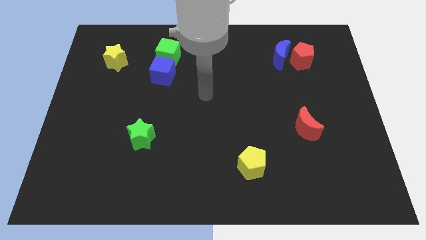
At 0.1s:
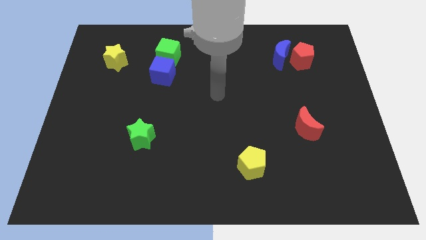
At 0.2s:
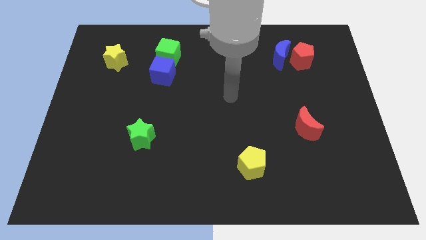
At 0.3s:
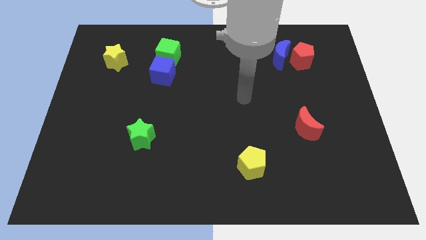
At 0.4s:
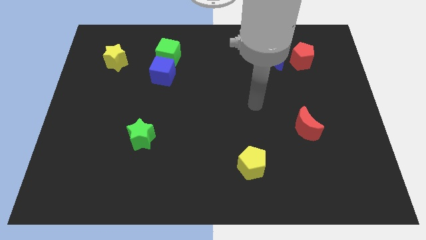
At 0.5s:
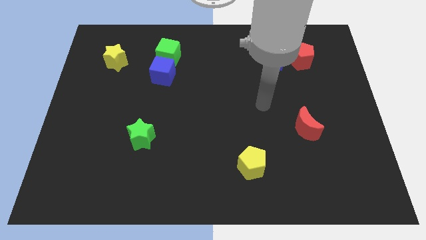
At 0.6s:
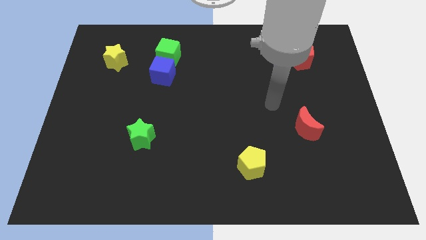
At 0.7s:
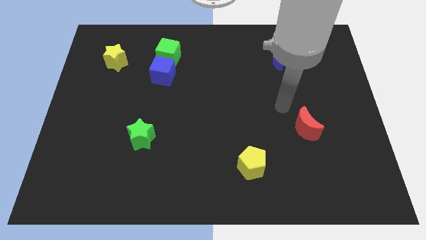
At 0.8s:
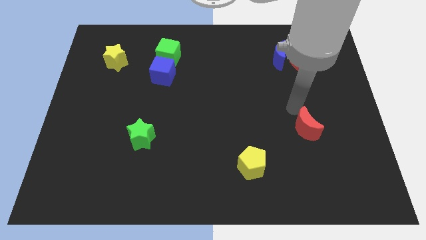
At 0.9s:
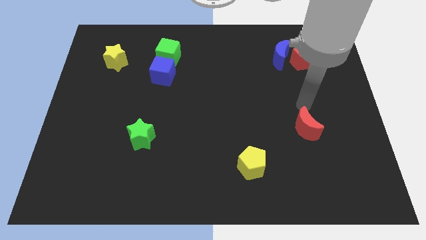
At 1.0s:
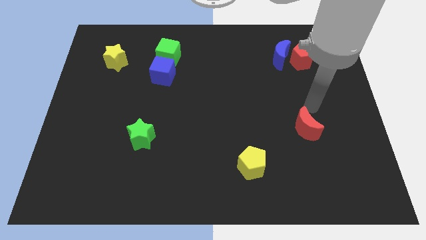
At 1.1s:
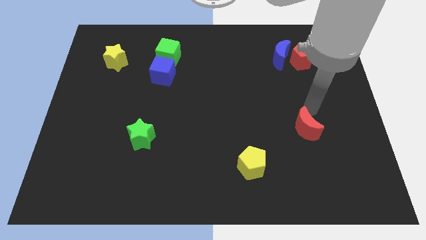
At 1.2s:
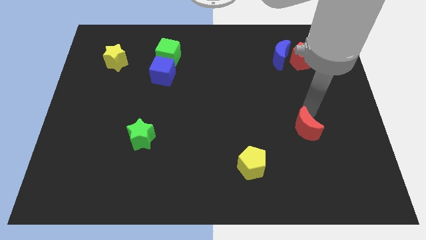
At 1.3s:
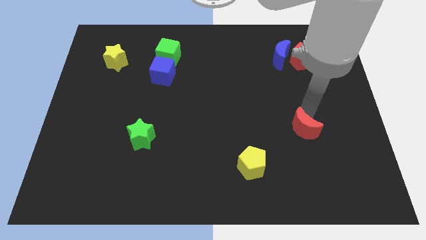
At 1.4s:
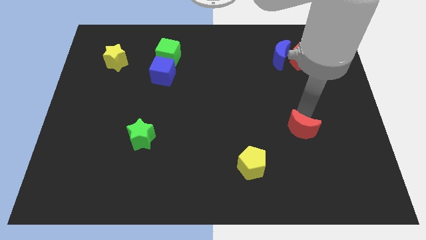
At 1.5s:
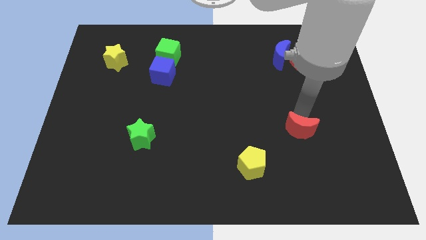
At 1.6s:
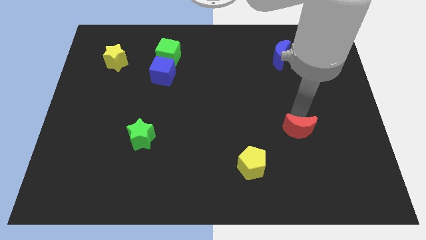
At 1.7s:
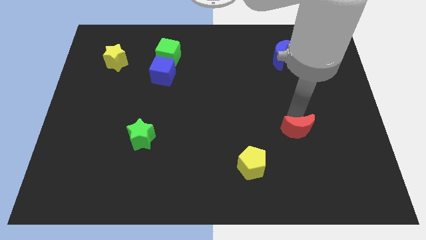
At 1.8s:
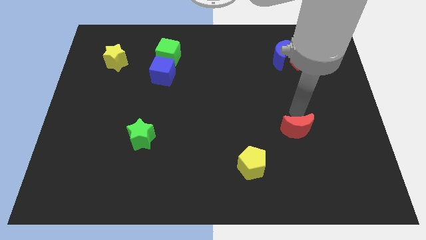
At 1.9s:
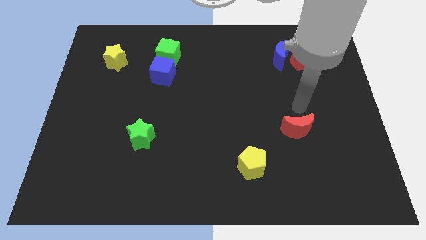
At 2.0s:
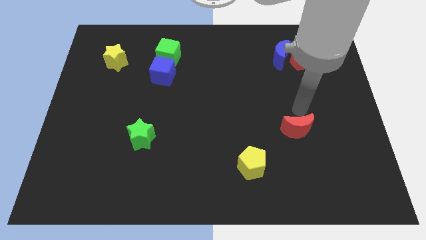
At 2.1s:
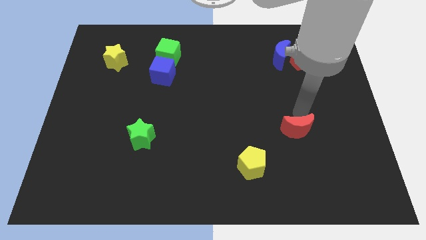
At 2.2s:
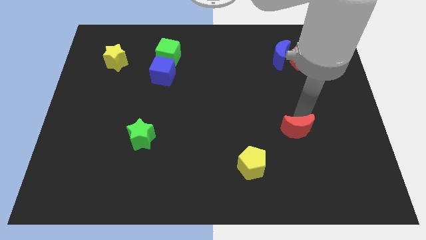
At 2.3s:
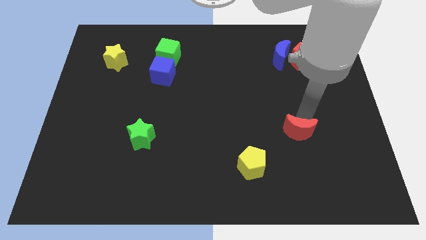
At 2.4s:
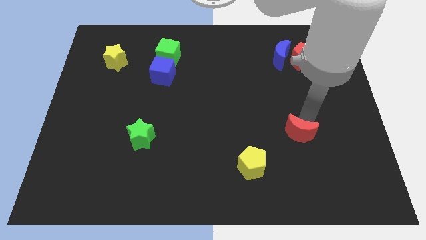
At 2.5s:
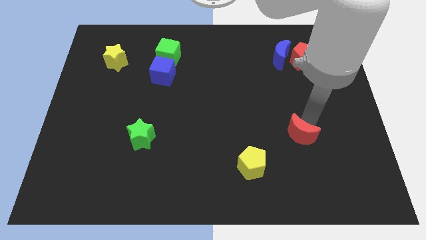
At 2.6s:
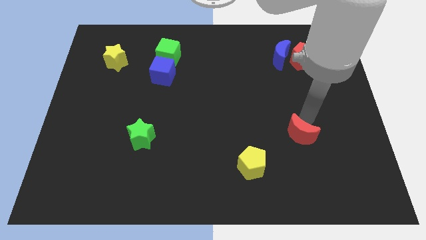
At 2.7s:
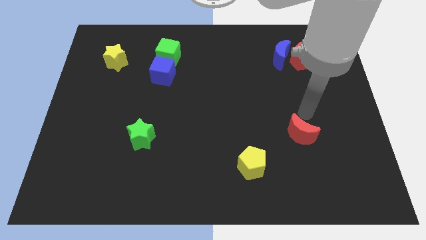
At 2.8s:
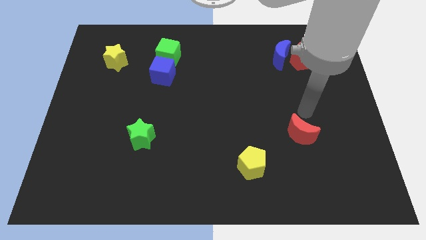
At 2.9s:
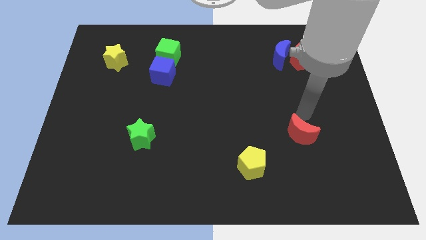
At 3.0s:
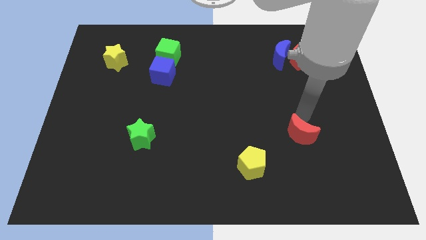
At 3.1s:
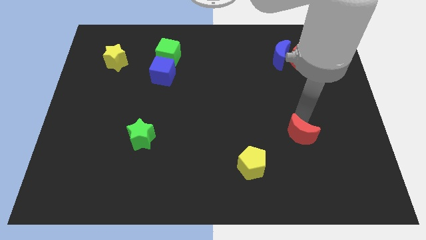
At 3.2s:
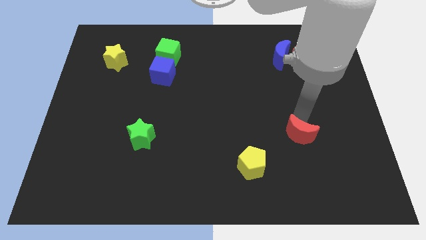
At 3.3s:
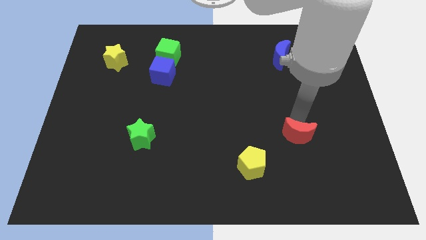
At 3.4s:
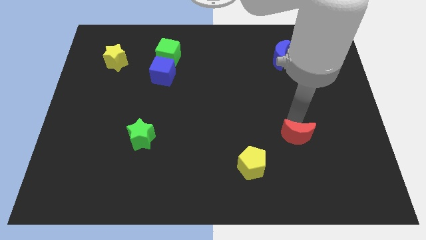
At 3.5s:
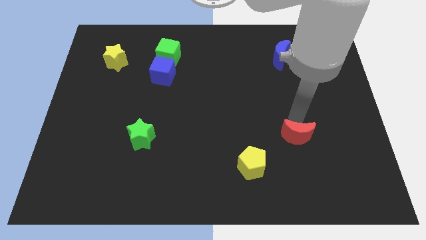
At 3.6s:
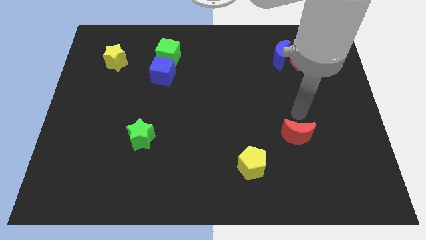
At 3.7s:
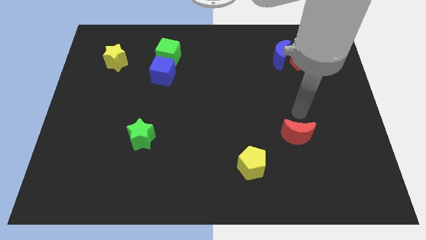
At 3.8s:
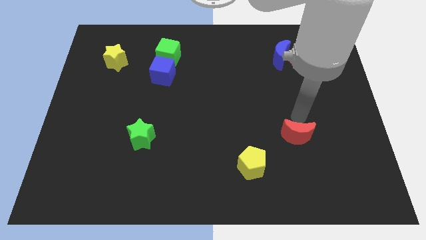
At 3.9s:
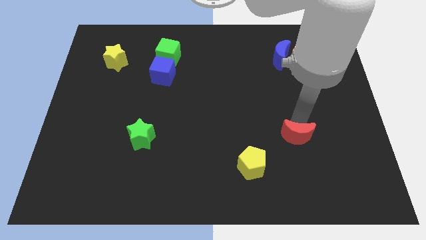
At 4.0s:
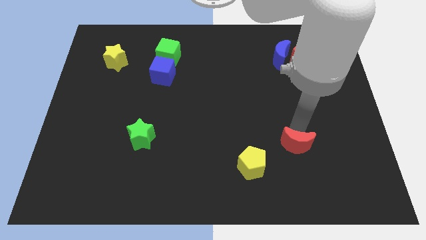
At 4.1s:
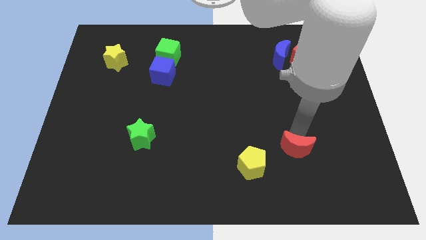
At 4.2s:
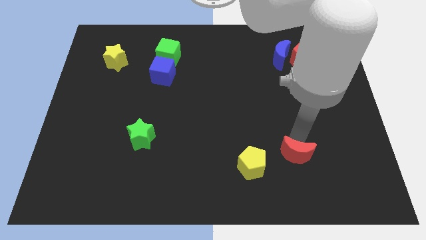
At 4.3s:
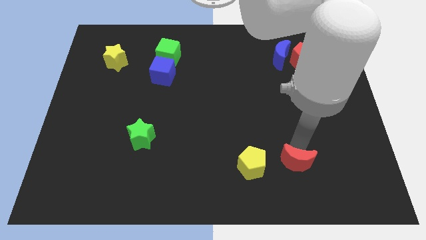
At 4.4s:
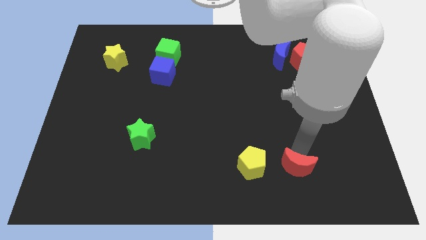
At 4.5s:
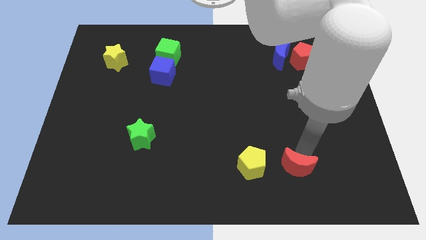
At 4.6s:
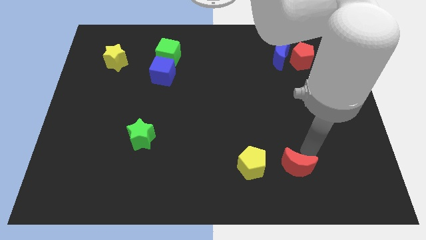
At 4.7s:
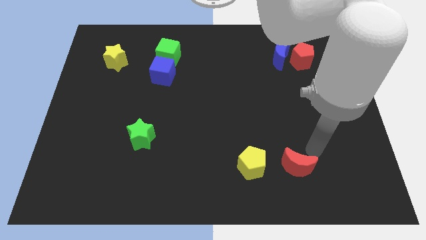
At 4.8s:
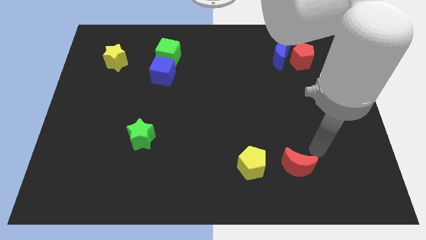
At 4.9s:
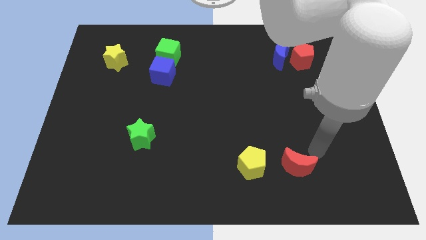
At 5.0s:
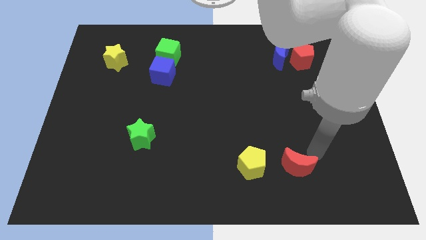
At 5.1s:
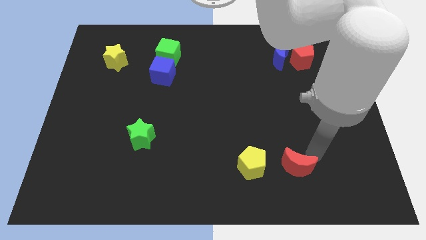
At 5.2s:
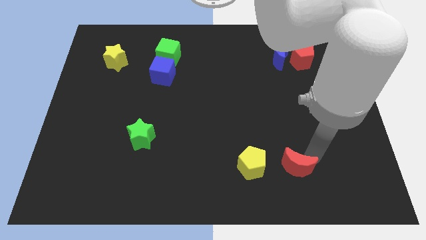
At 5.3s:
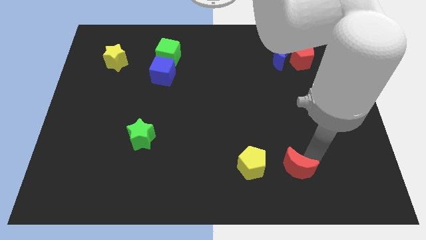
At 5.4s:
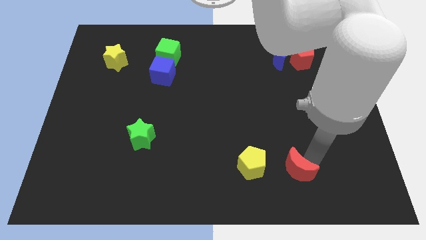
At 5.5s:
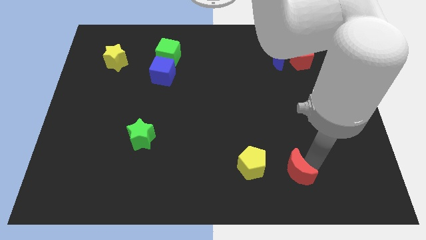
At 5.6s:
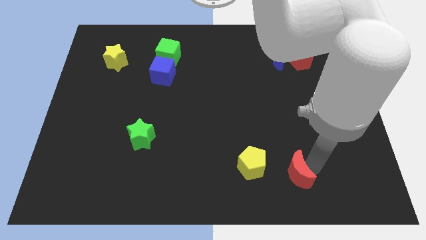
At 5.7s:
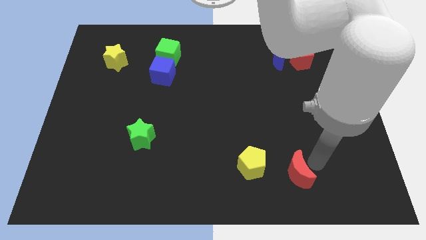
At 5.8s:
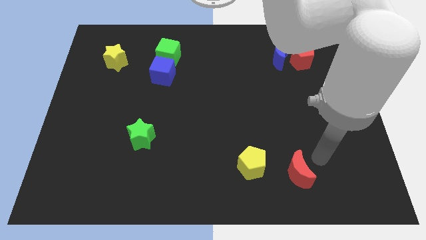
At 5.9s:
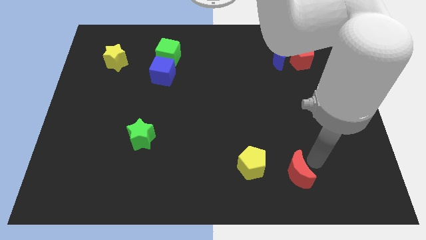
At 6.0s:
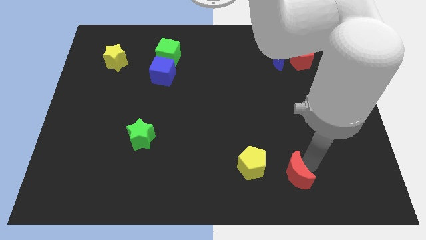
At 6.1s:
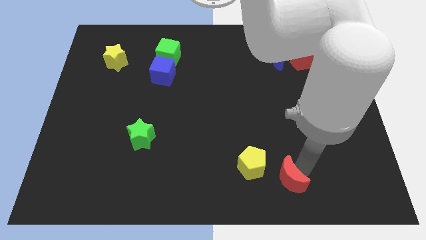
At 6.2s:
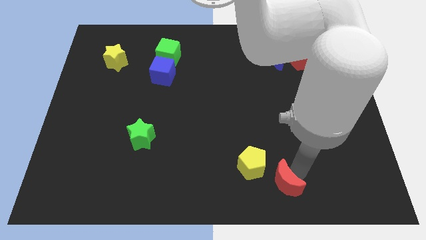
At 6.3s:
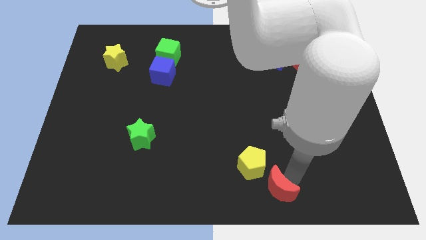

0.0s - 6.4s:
put the red moon to the bottom side
